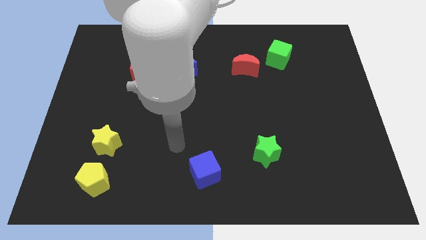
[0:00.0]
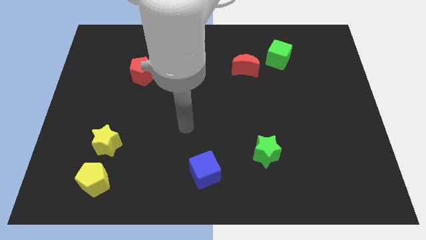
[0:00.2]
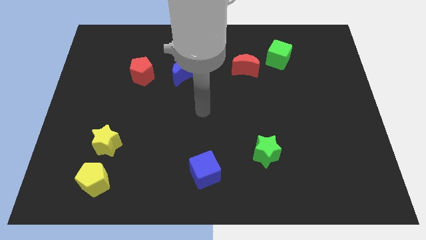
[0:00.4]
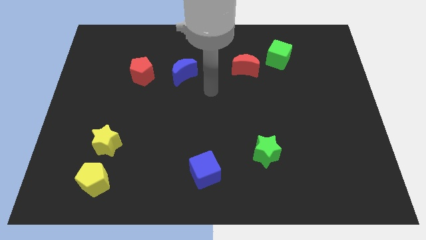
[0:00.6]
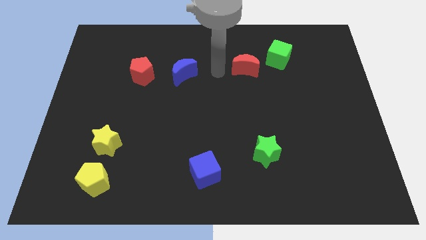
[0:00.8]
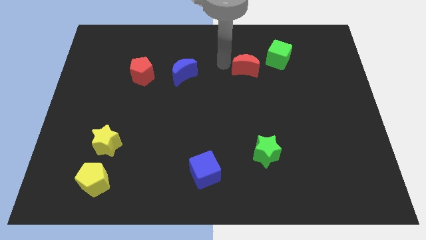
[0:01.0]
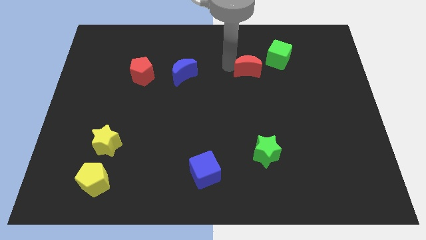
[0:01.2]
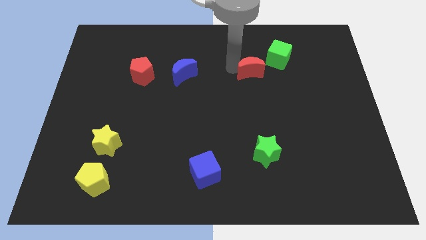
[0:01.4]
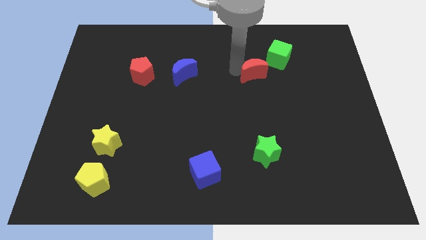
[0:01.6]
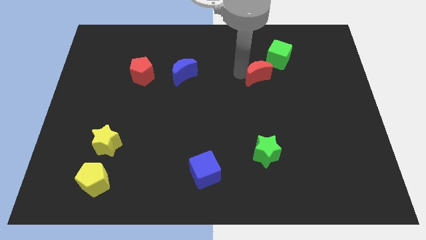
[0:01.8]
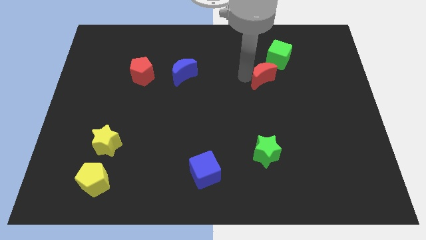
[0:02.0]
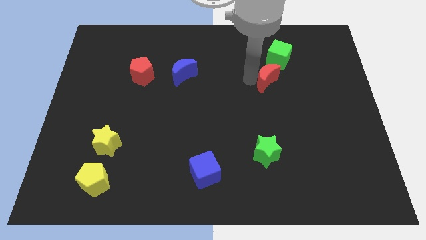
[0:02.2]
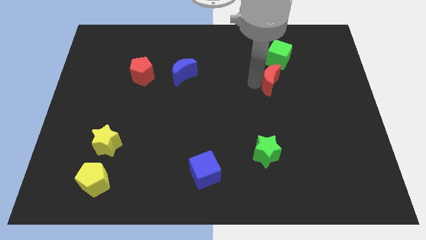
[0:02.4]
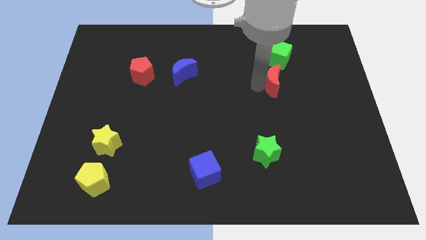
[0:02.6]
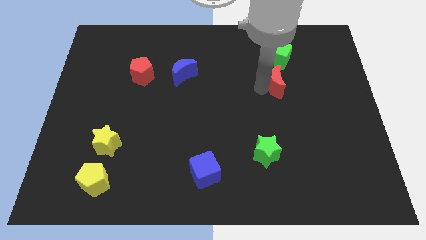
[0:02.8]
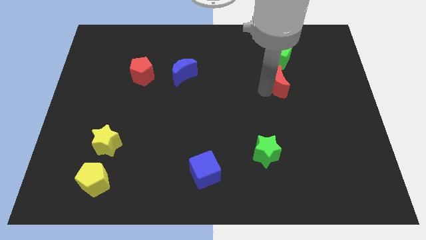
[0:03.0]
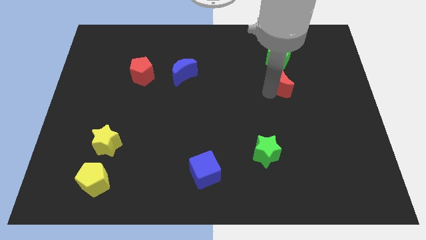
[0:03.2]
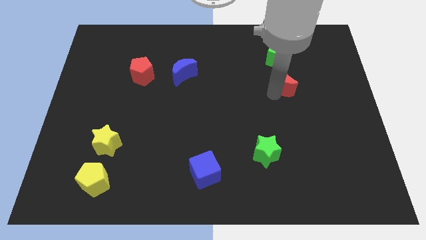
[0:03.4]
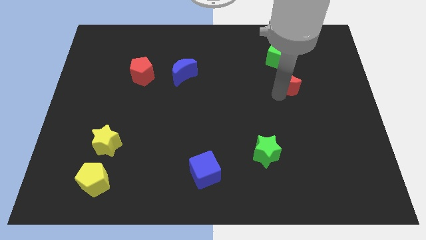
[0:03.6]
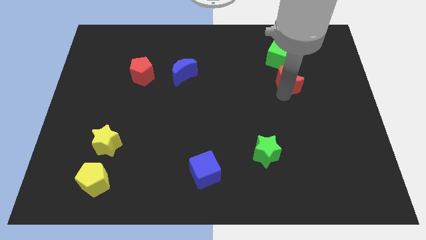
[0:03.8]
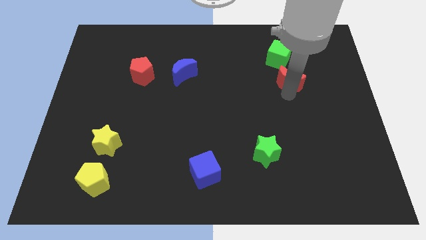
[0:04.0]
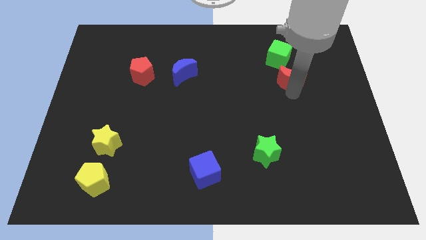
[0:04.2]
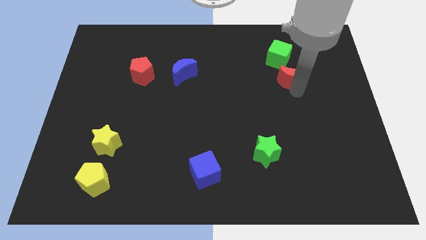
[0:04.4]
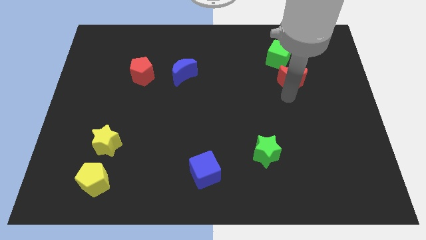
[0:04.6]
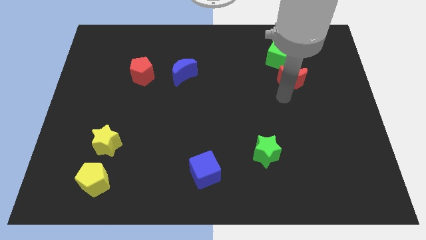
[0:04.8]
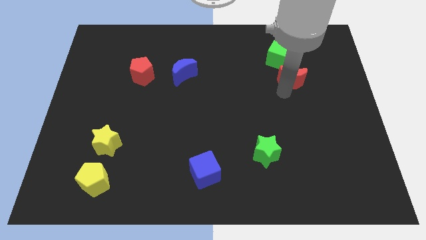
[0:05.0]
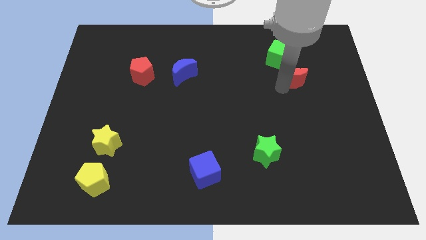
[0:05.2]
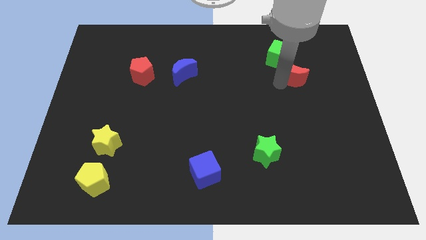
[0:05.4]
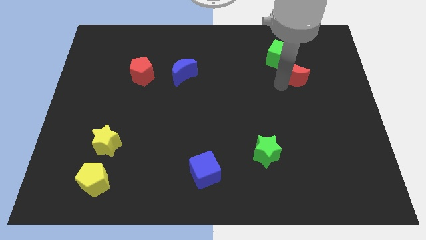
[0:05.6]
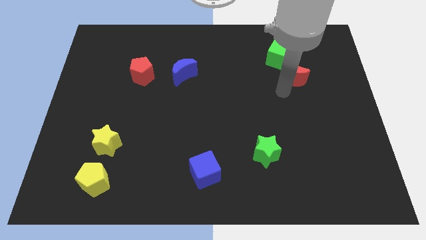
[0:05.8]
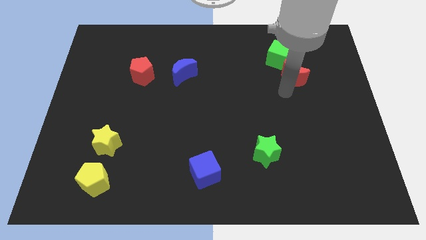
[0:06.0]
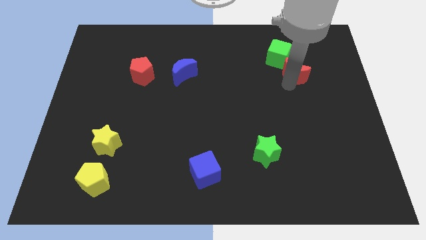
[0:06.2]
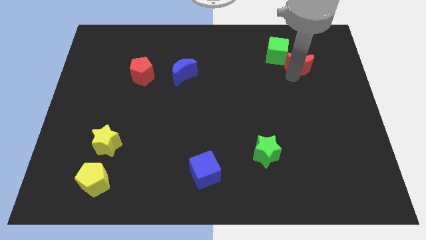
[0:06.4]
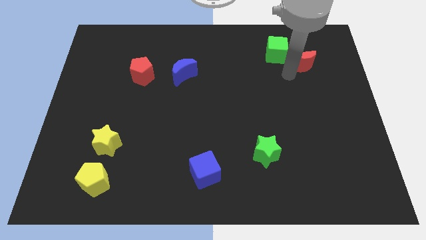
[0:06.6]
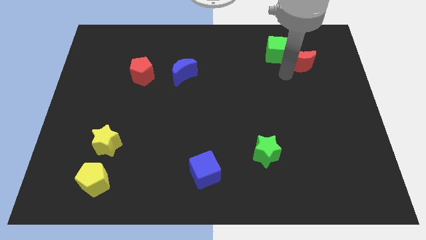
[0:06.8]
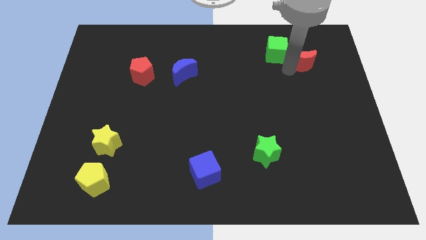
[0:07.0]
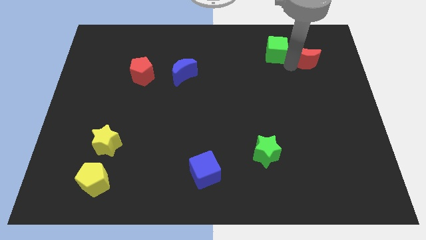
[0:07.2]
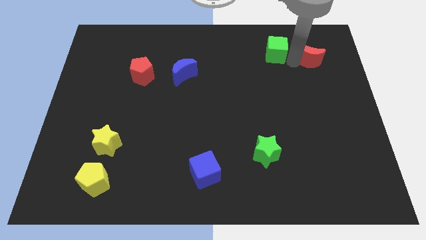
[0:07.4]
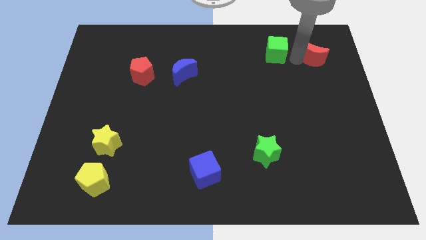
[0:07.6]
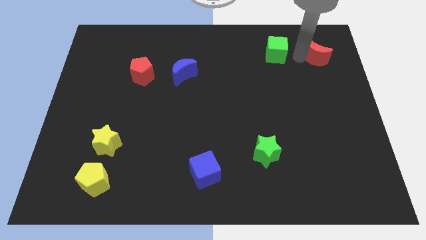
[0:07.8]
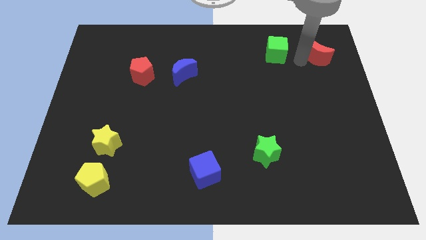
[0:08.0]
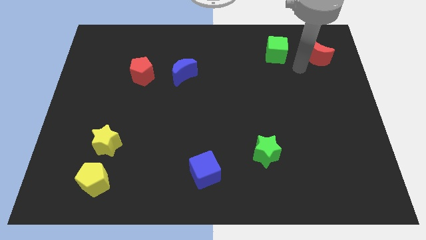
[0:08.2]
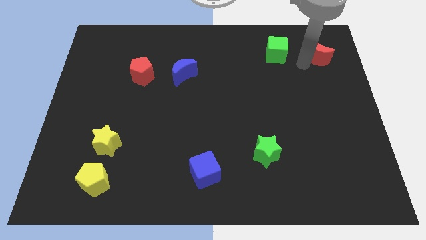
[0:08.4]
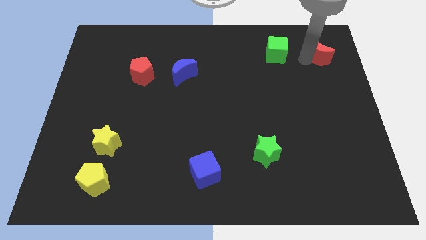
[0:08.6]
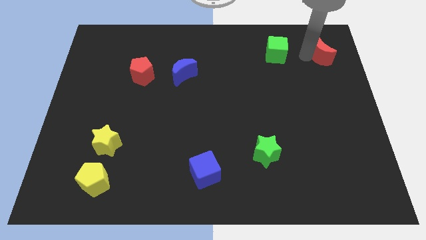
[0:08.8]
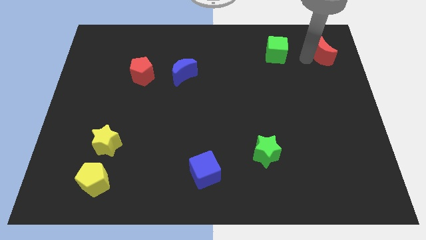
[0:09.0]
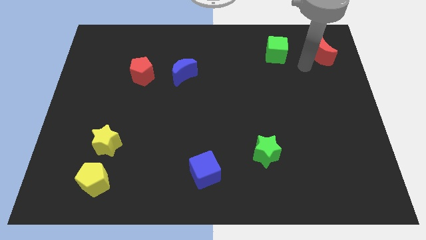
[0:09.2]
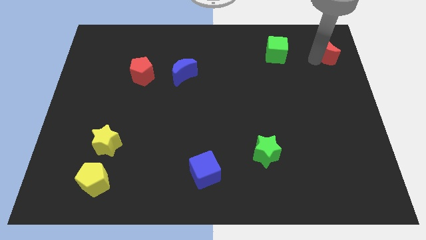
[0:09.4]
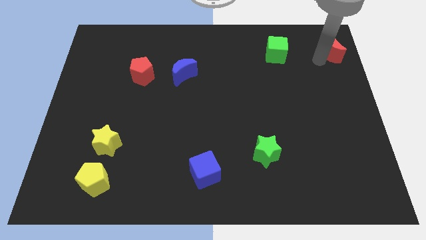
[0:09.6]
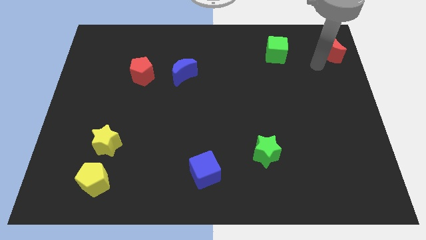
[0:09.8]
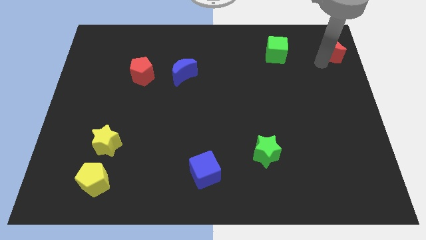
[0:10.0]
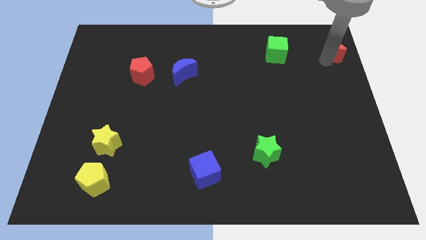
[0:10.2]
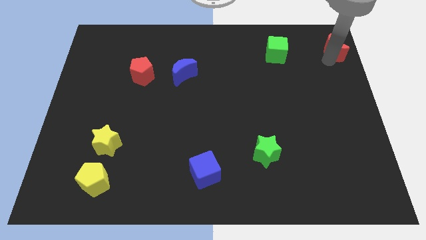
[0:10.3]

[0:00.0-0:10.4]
slide the red moon to the top right of the board

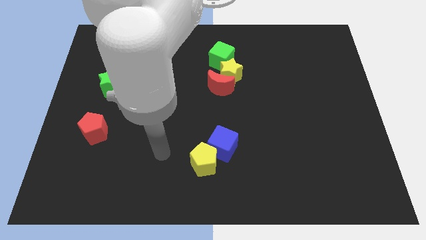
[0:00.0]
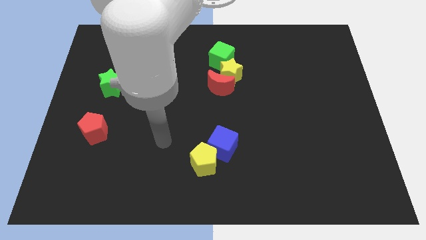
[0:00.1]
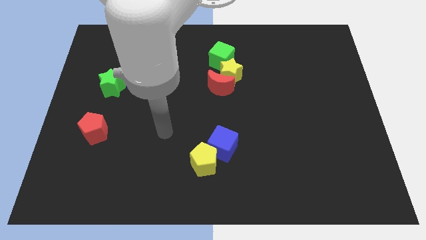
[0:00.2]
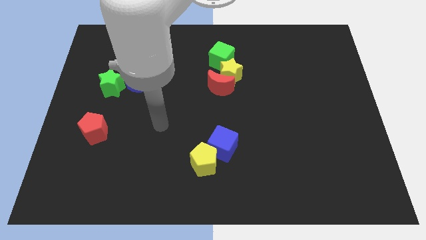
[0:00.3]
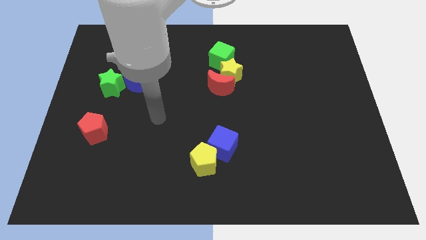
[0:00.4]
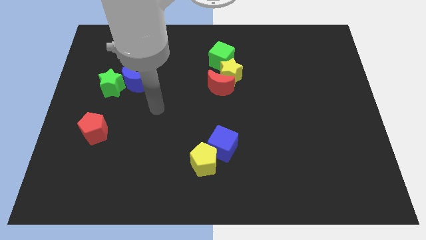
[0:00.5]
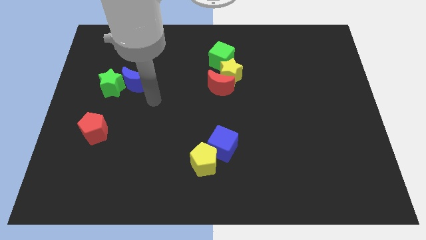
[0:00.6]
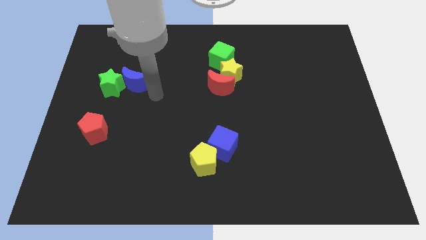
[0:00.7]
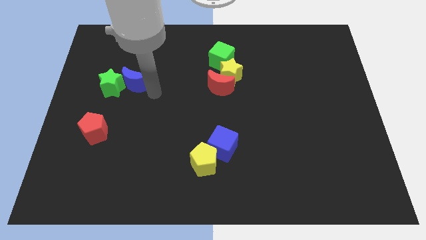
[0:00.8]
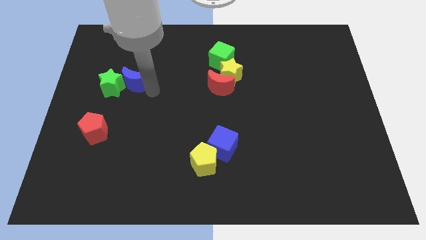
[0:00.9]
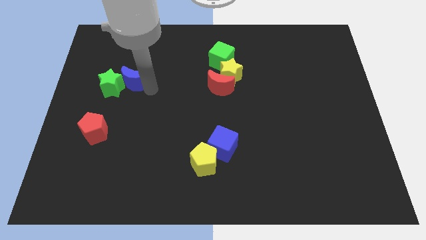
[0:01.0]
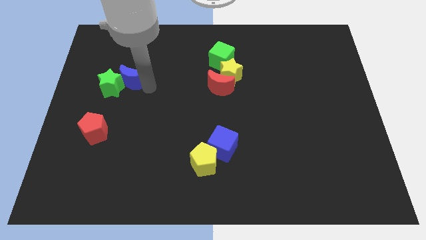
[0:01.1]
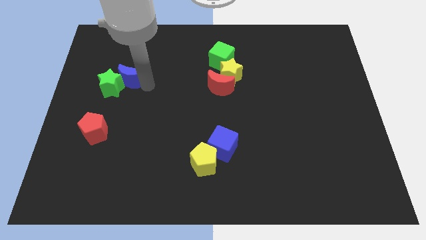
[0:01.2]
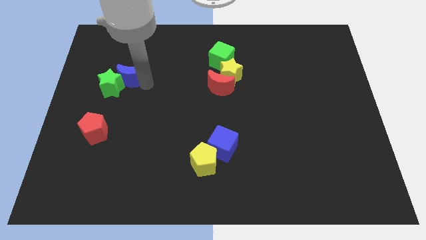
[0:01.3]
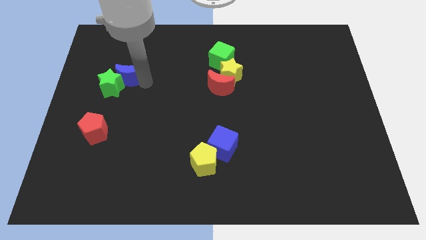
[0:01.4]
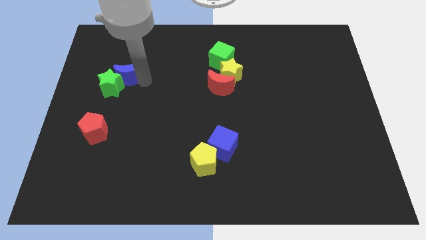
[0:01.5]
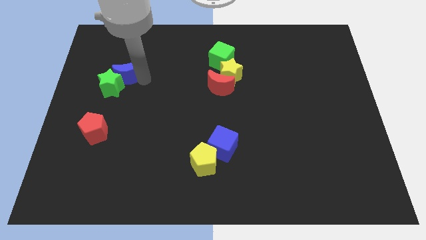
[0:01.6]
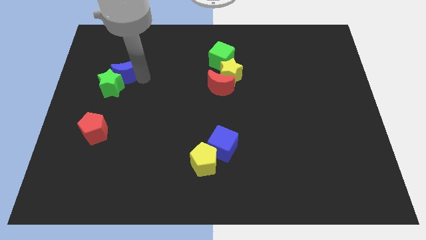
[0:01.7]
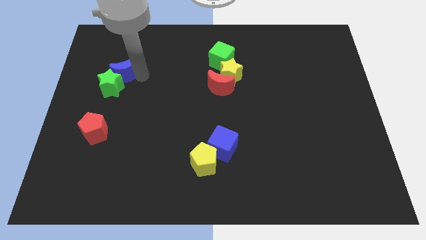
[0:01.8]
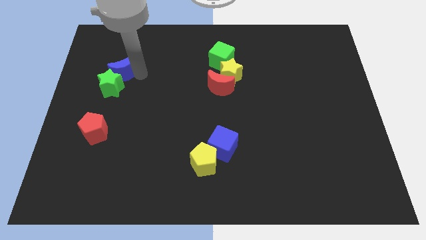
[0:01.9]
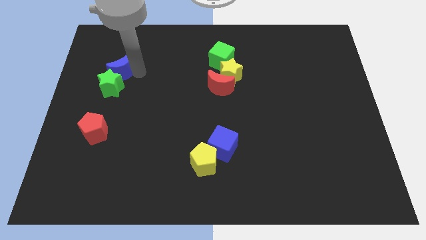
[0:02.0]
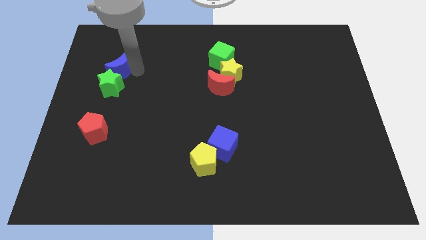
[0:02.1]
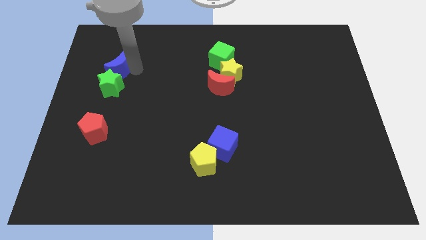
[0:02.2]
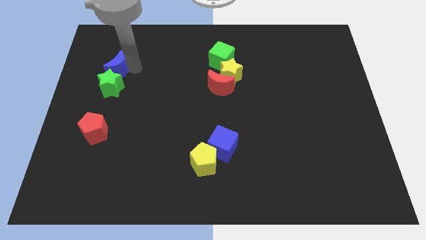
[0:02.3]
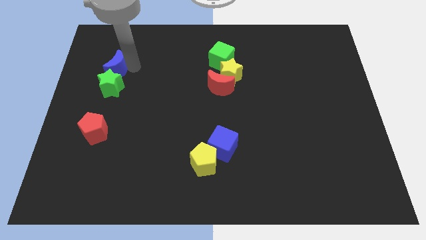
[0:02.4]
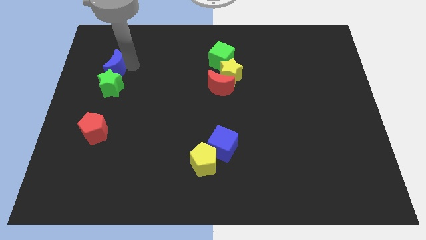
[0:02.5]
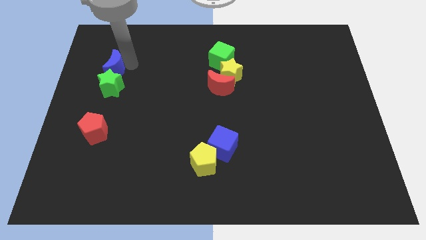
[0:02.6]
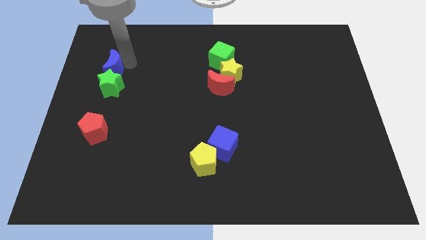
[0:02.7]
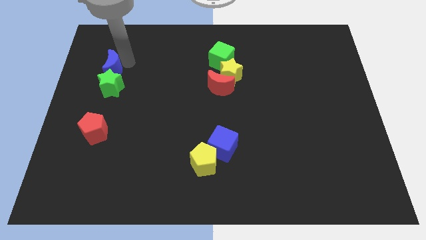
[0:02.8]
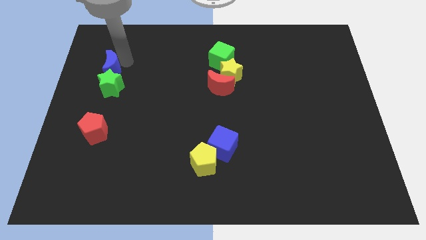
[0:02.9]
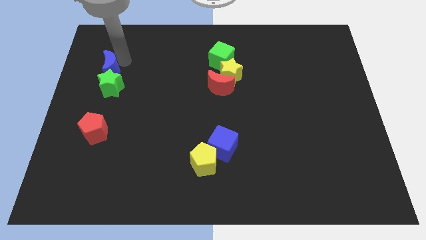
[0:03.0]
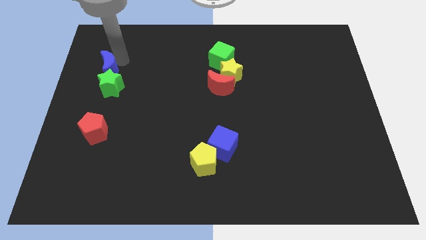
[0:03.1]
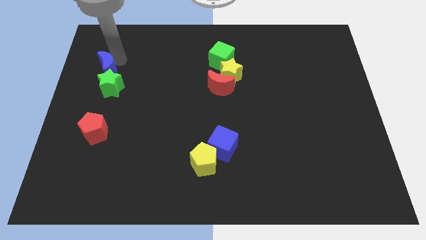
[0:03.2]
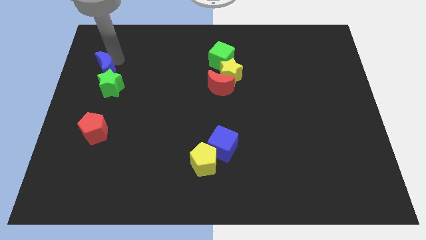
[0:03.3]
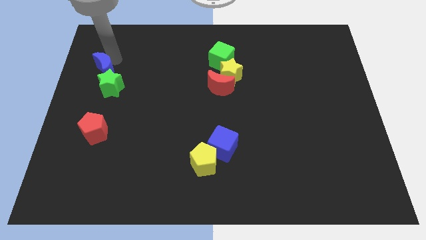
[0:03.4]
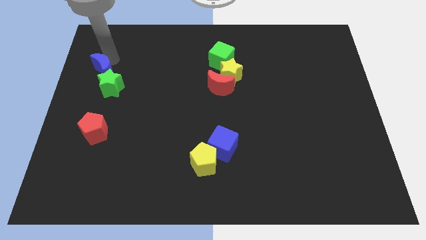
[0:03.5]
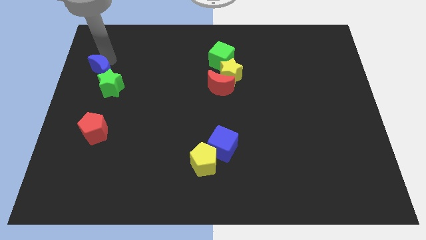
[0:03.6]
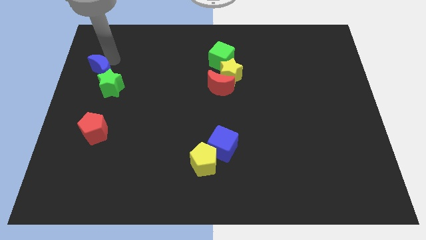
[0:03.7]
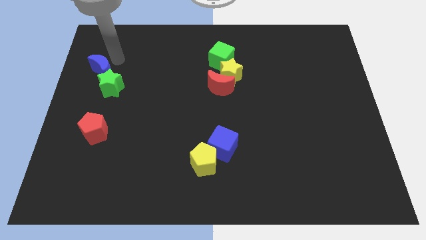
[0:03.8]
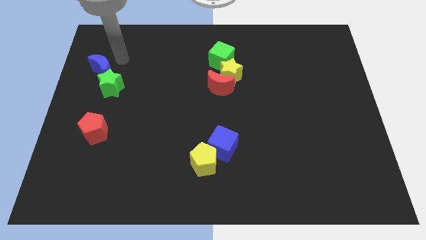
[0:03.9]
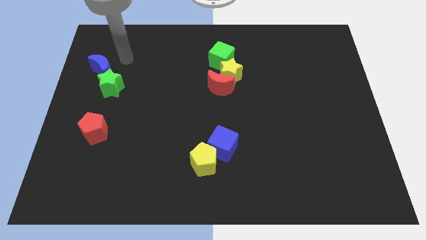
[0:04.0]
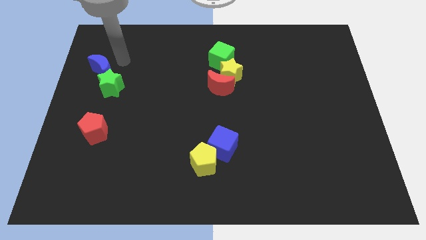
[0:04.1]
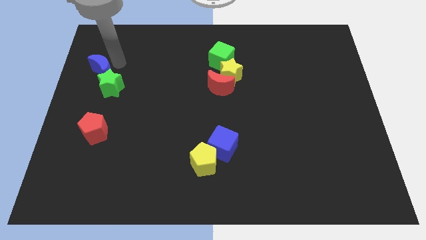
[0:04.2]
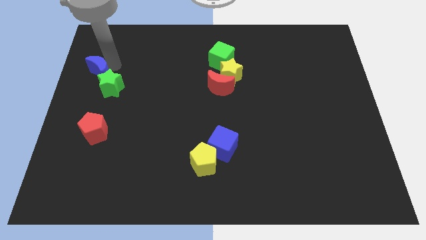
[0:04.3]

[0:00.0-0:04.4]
move the blue moon to the left side
